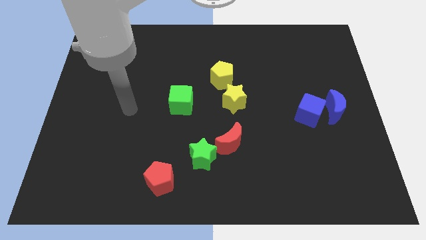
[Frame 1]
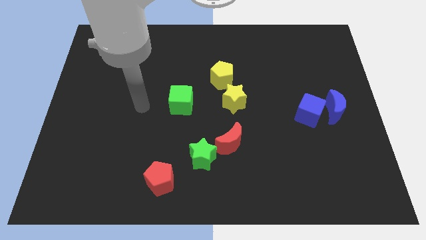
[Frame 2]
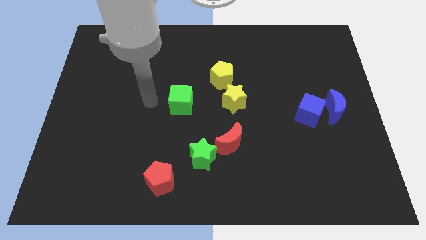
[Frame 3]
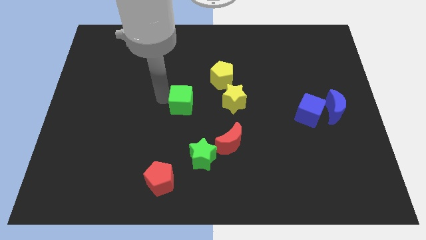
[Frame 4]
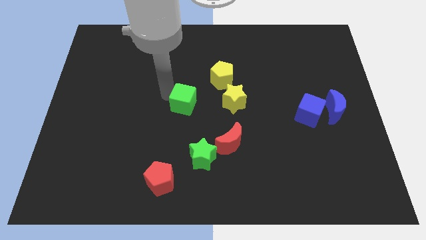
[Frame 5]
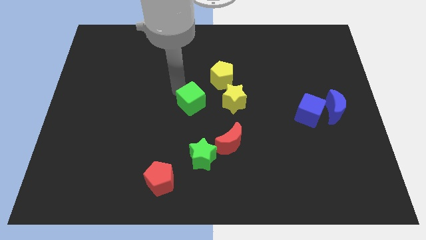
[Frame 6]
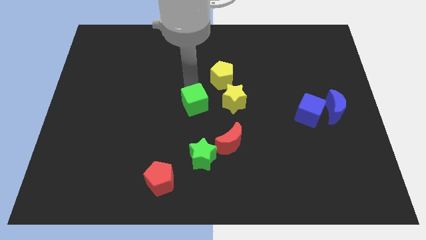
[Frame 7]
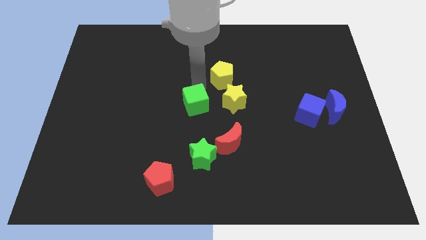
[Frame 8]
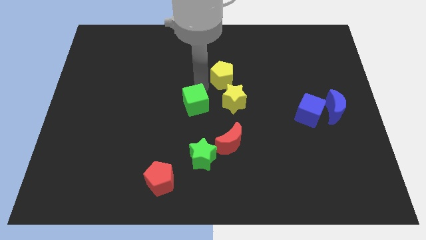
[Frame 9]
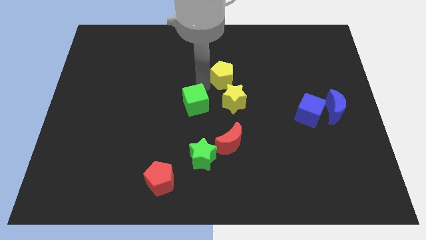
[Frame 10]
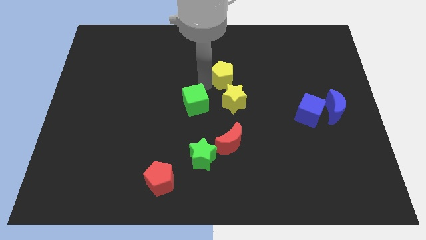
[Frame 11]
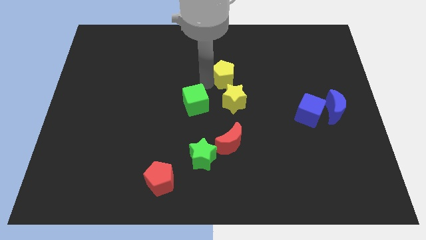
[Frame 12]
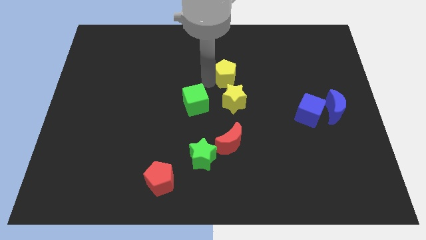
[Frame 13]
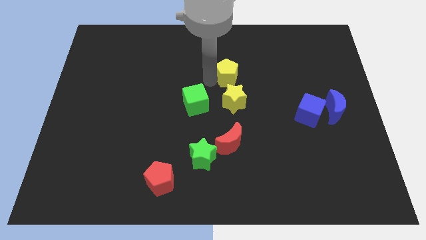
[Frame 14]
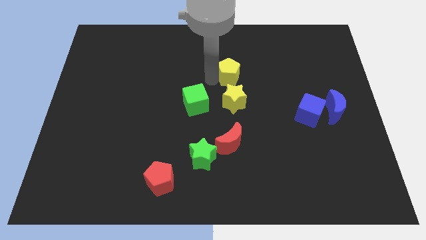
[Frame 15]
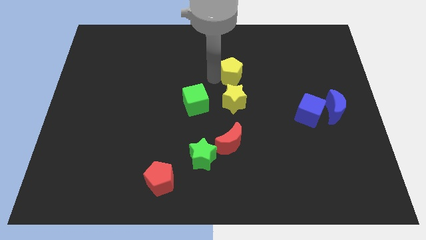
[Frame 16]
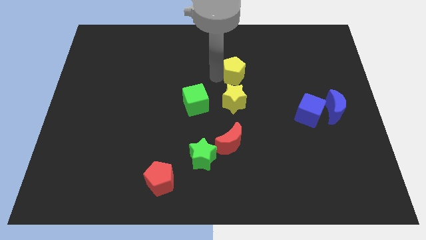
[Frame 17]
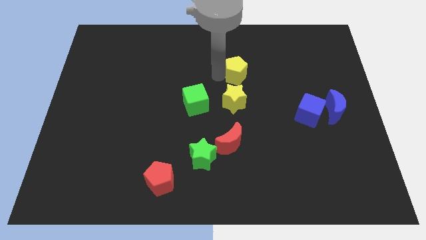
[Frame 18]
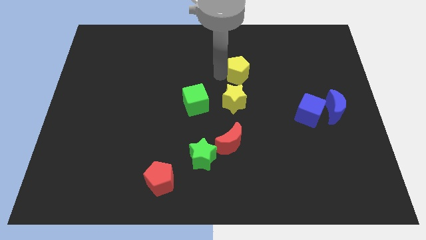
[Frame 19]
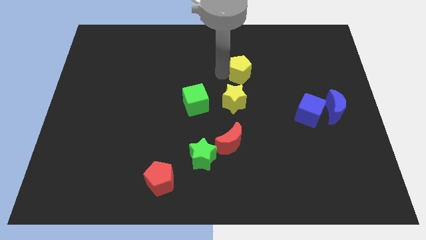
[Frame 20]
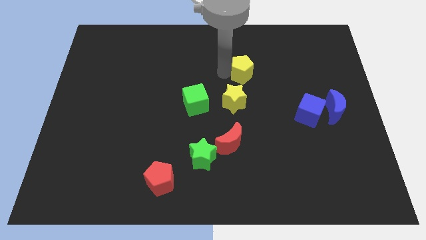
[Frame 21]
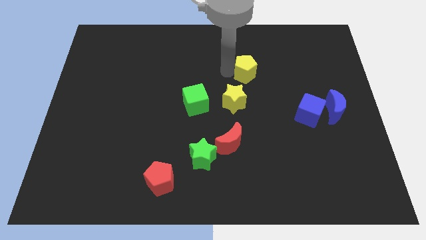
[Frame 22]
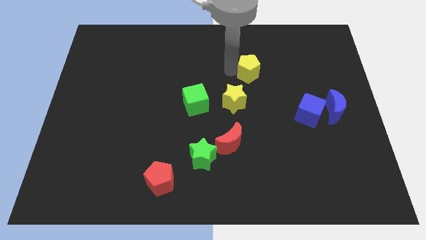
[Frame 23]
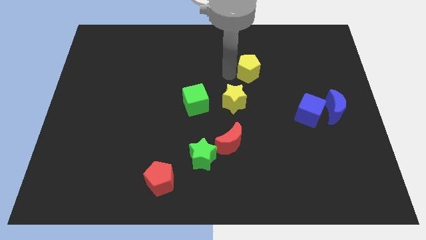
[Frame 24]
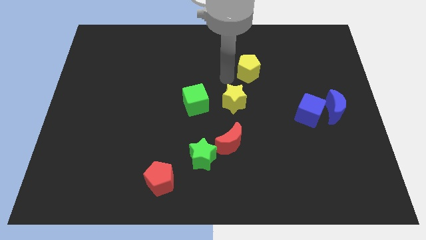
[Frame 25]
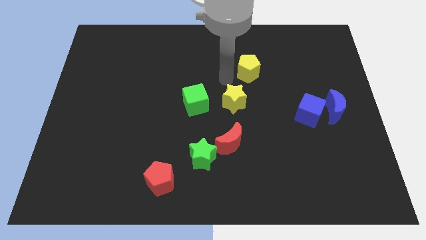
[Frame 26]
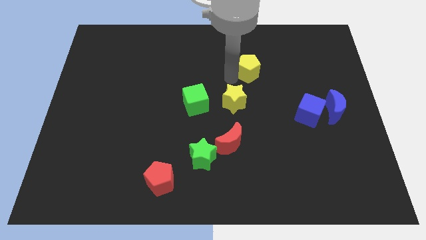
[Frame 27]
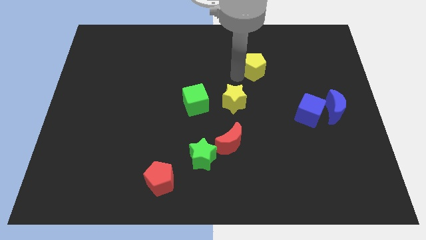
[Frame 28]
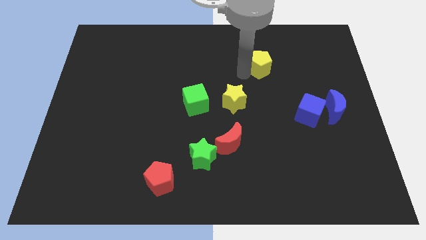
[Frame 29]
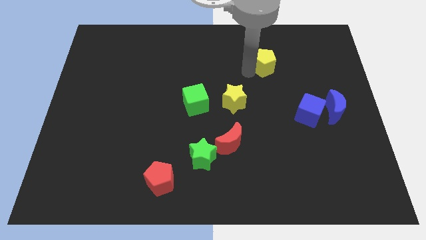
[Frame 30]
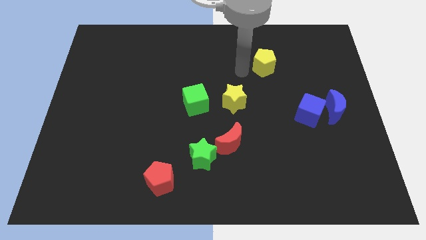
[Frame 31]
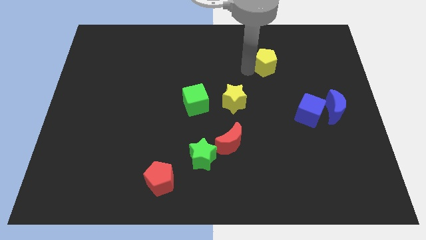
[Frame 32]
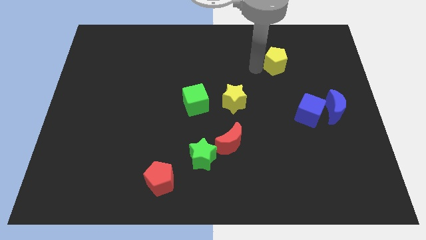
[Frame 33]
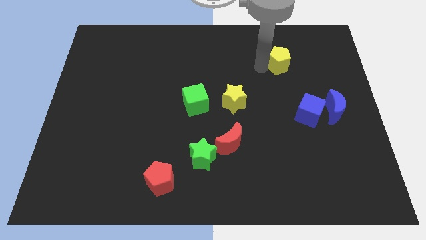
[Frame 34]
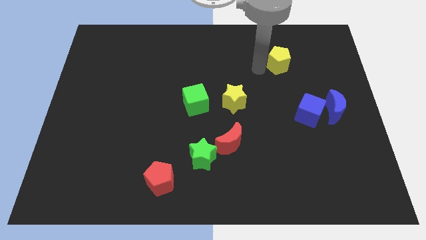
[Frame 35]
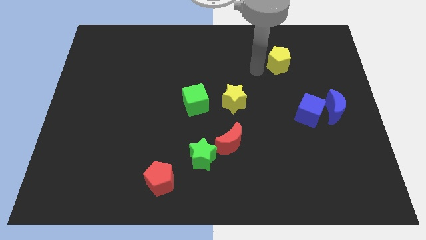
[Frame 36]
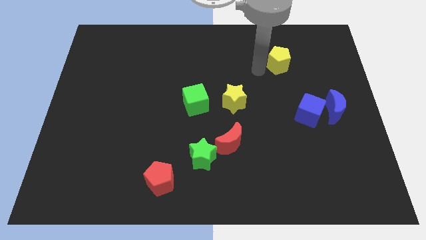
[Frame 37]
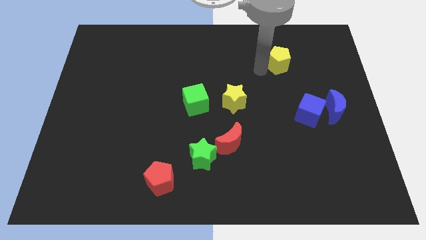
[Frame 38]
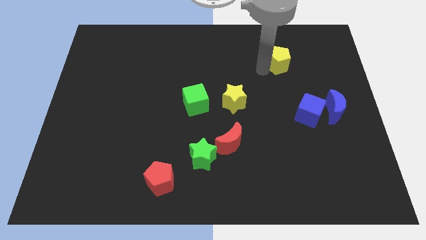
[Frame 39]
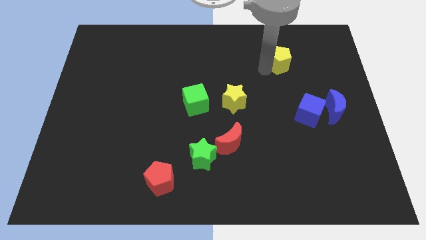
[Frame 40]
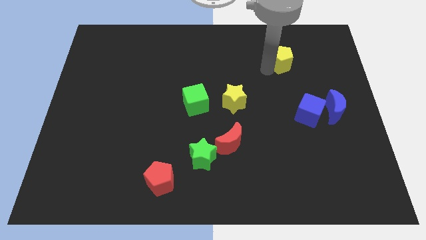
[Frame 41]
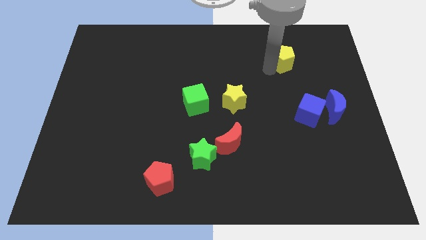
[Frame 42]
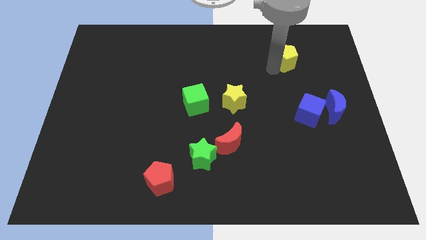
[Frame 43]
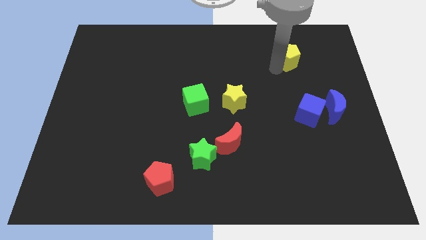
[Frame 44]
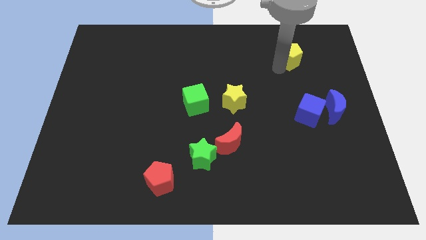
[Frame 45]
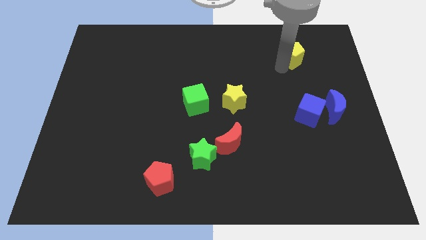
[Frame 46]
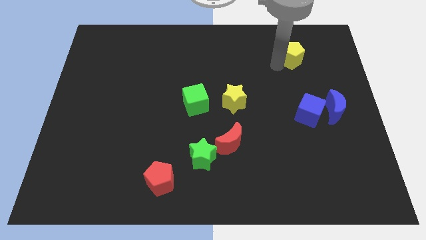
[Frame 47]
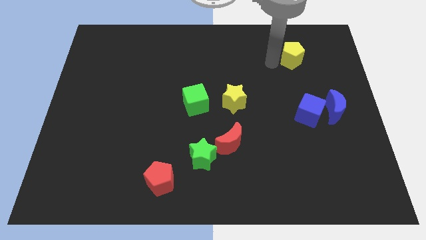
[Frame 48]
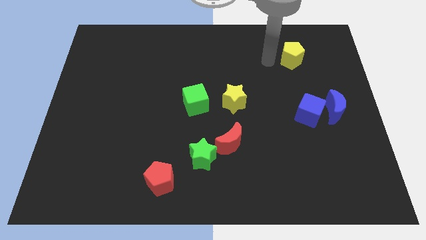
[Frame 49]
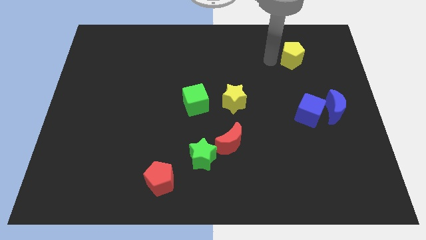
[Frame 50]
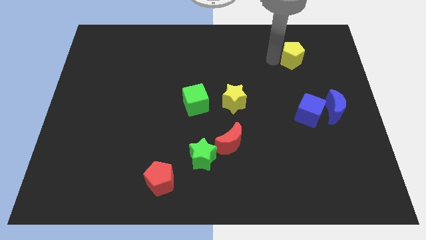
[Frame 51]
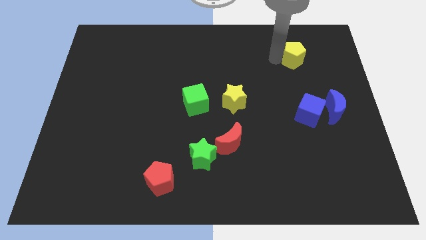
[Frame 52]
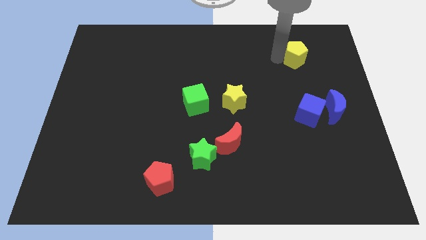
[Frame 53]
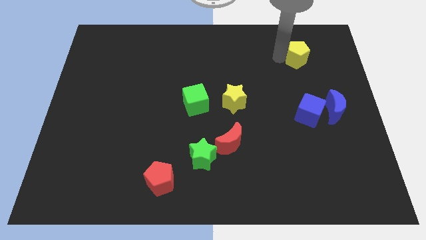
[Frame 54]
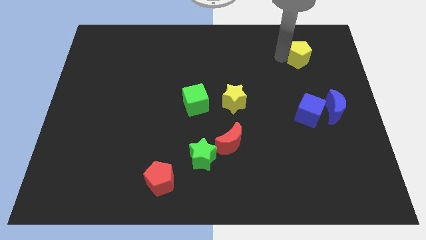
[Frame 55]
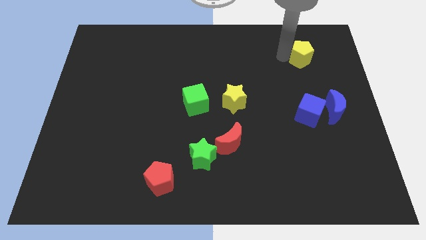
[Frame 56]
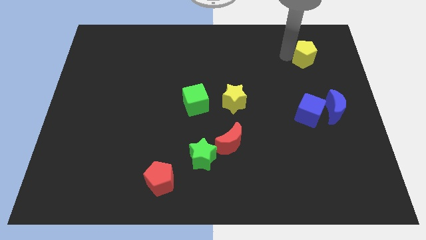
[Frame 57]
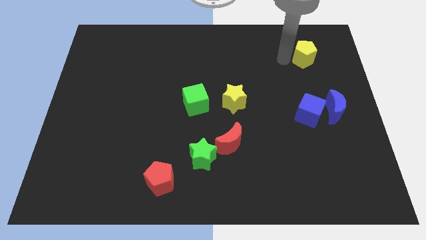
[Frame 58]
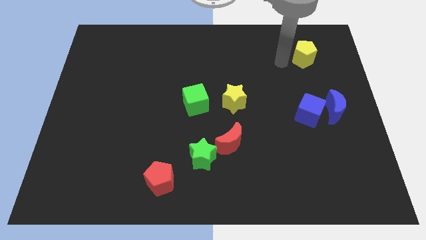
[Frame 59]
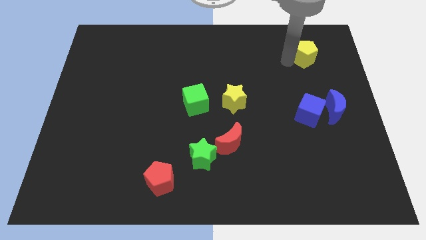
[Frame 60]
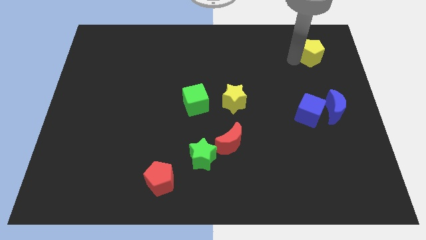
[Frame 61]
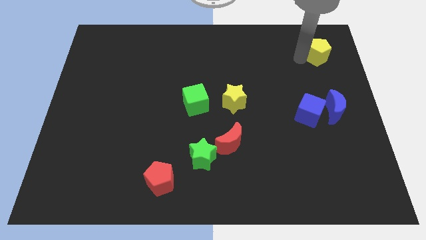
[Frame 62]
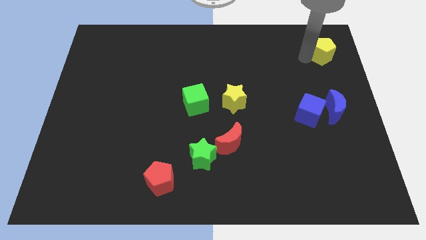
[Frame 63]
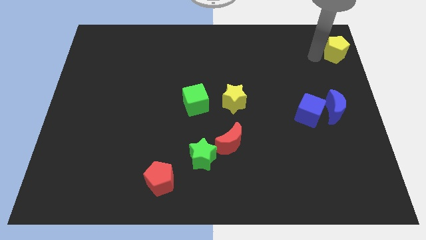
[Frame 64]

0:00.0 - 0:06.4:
move the yellow pentagon to the top right of the board
